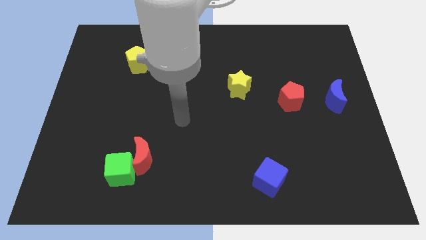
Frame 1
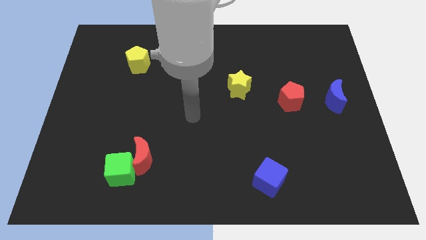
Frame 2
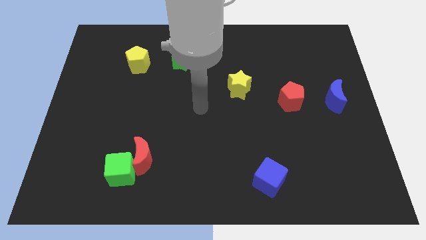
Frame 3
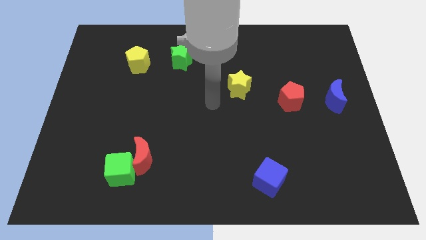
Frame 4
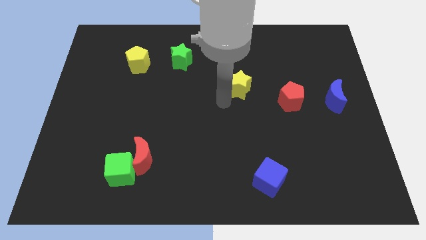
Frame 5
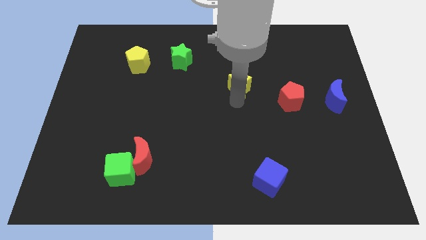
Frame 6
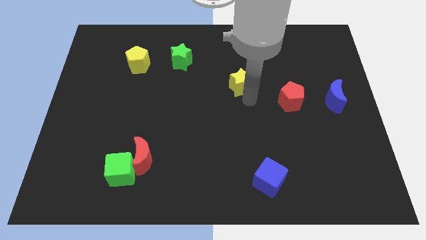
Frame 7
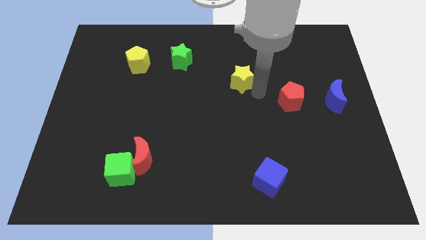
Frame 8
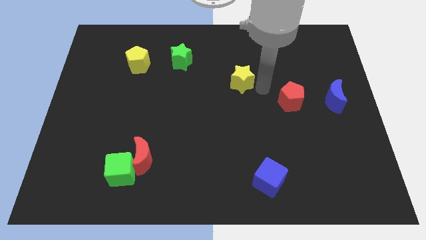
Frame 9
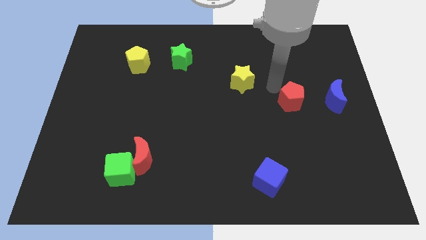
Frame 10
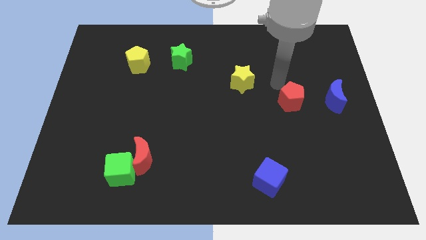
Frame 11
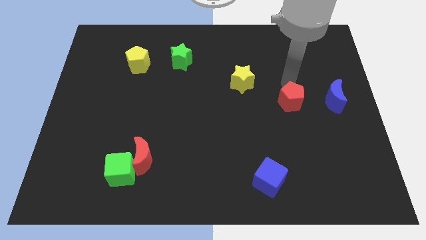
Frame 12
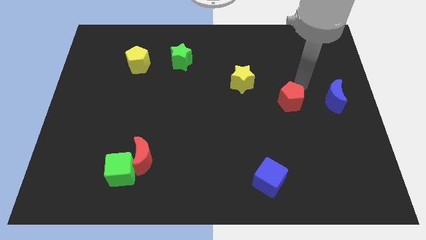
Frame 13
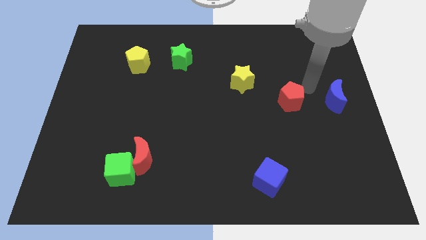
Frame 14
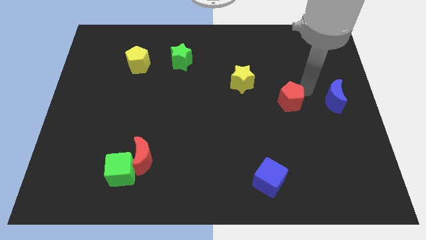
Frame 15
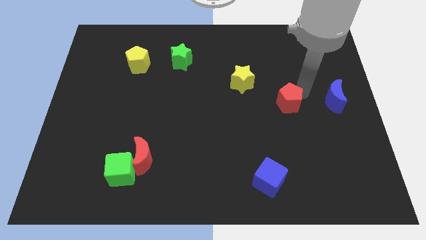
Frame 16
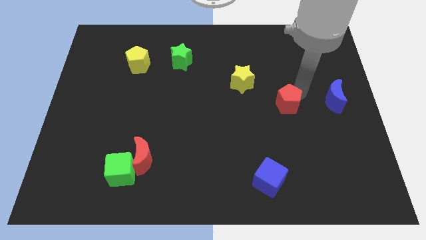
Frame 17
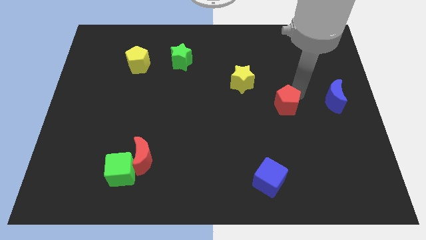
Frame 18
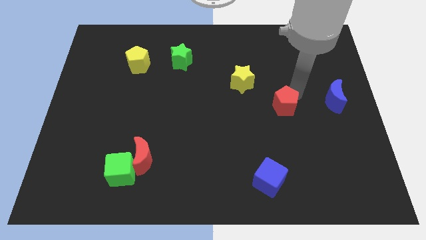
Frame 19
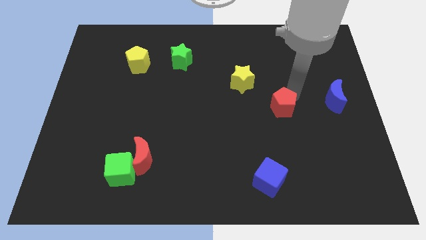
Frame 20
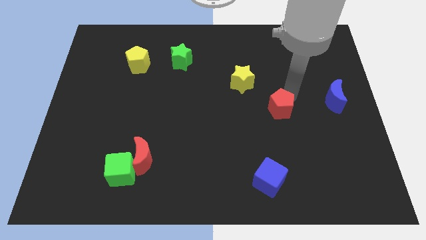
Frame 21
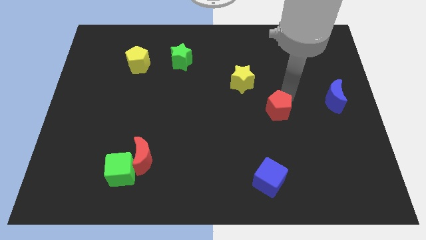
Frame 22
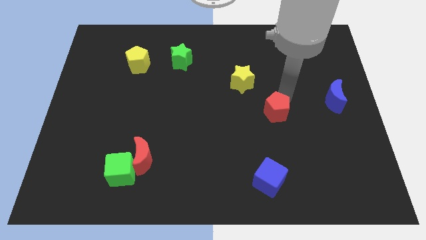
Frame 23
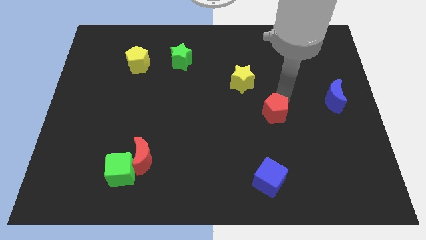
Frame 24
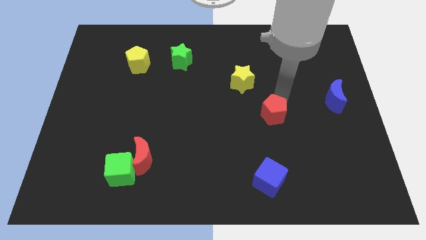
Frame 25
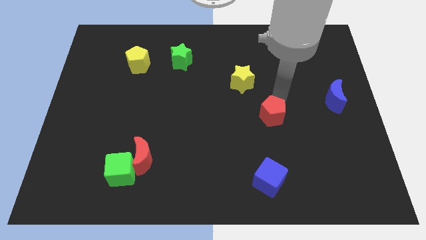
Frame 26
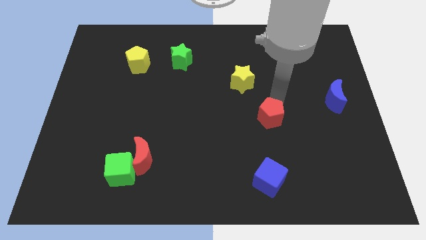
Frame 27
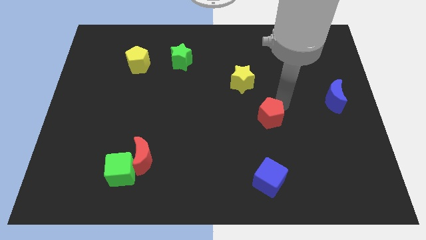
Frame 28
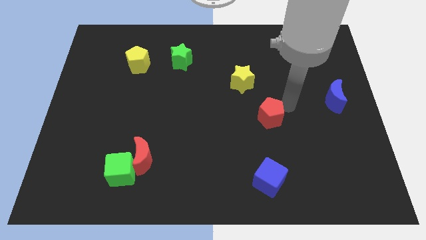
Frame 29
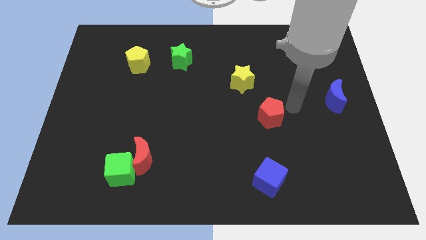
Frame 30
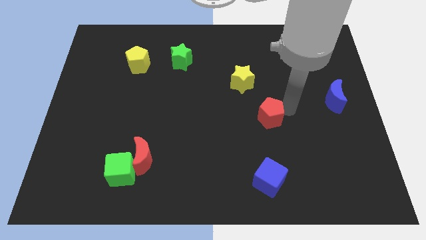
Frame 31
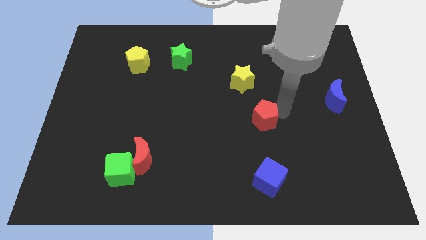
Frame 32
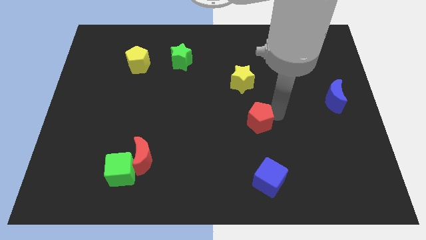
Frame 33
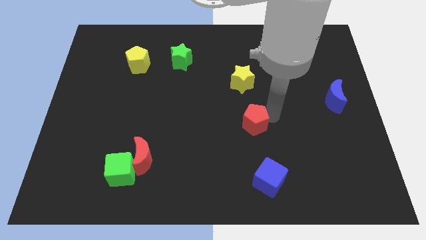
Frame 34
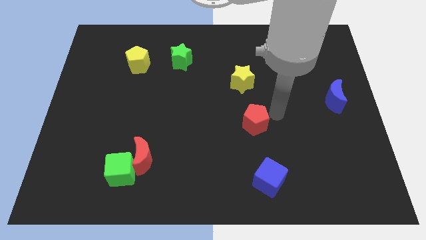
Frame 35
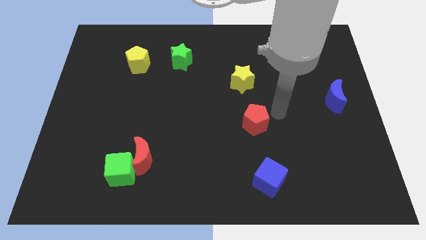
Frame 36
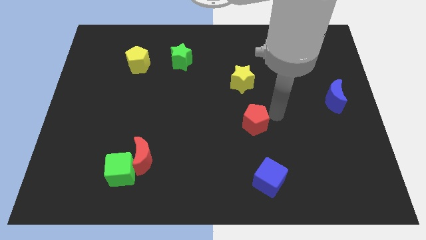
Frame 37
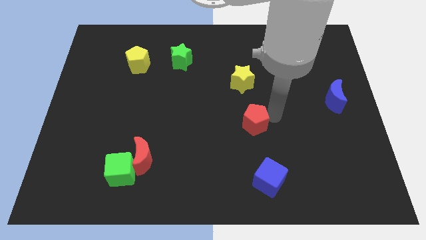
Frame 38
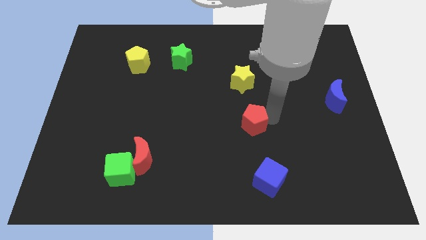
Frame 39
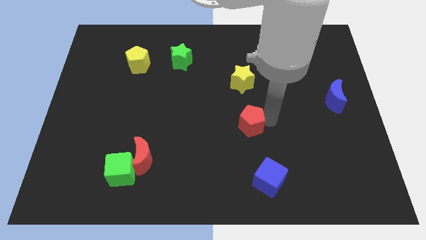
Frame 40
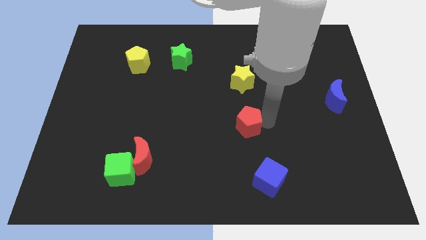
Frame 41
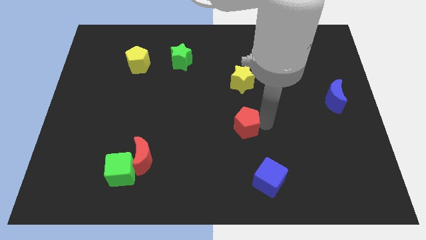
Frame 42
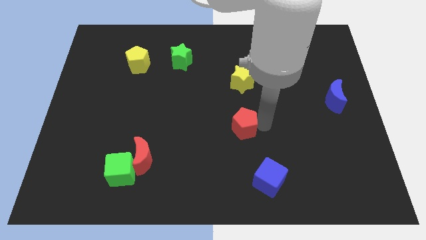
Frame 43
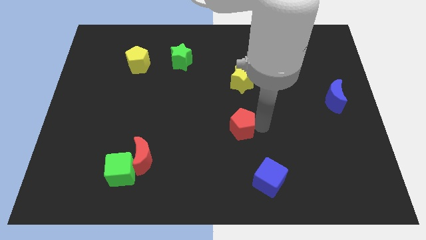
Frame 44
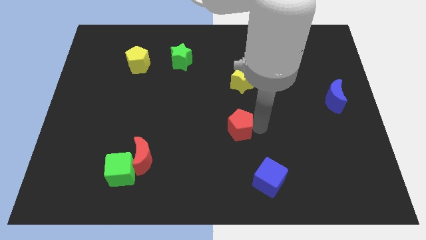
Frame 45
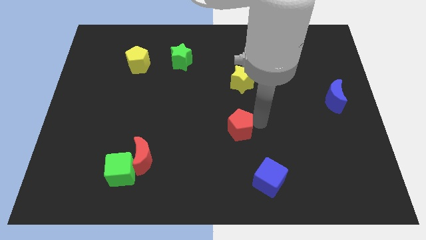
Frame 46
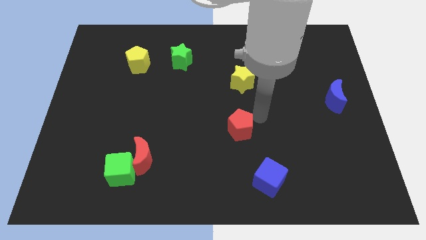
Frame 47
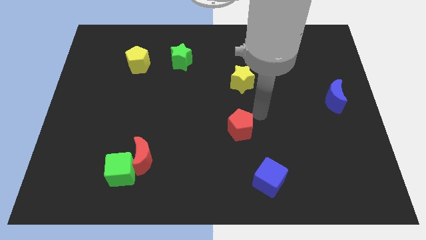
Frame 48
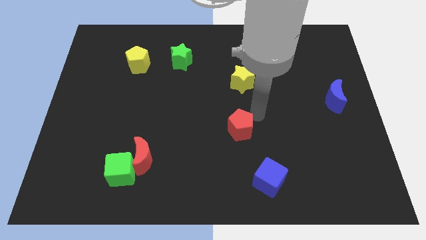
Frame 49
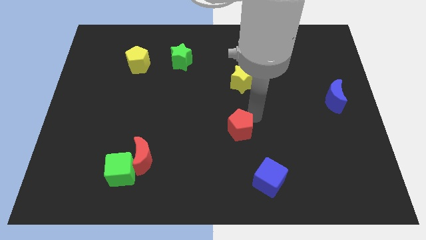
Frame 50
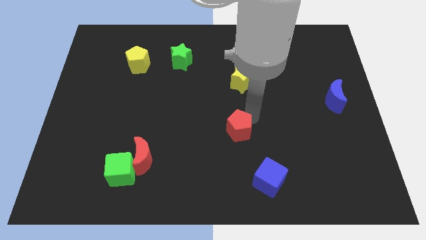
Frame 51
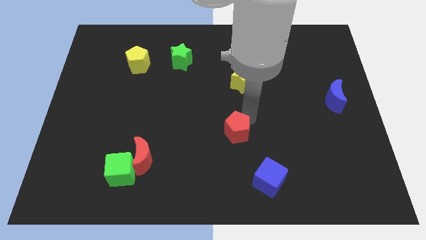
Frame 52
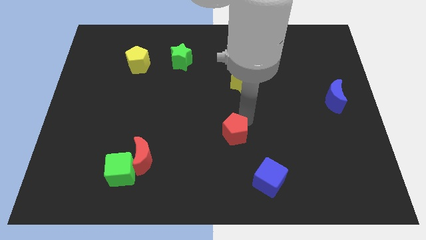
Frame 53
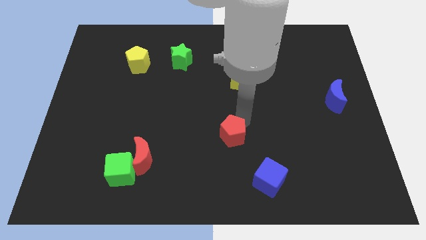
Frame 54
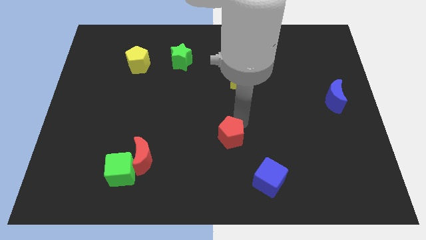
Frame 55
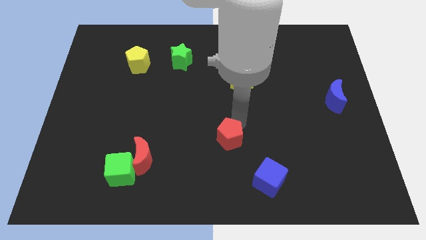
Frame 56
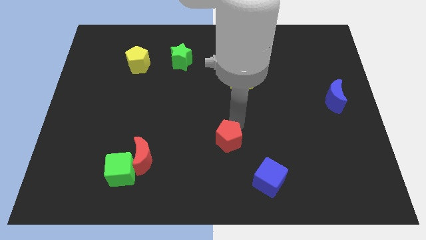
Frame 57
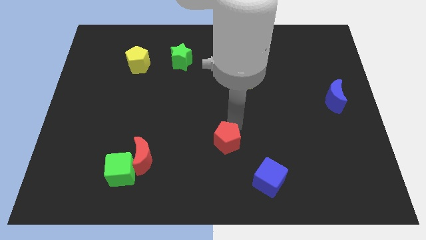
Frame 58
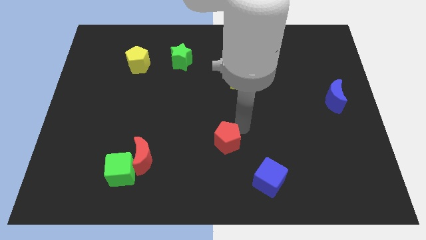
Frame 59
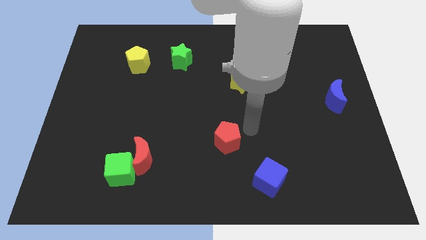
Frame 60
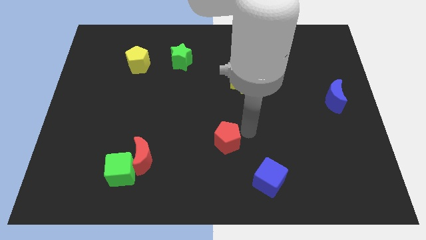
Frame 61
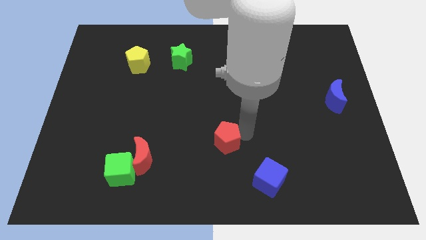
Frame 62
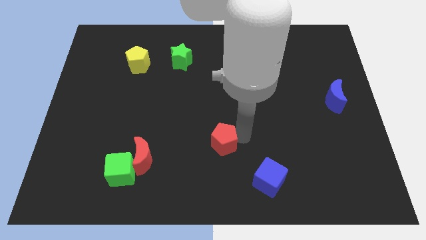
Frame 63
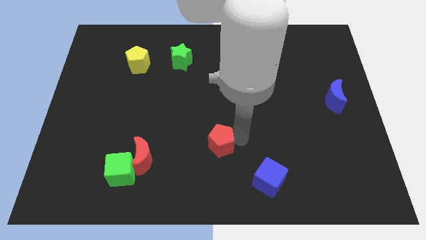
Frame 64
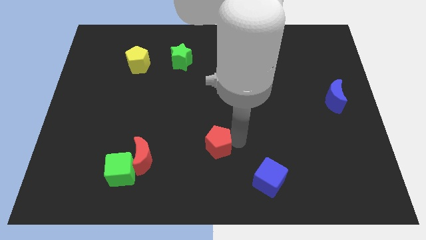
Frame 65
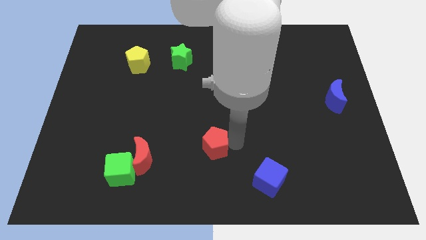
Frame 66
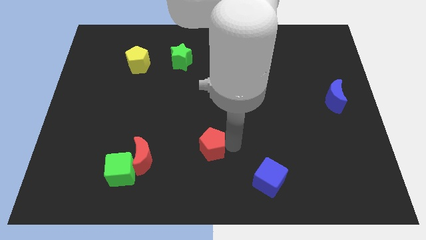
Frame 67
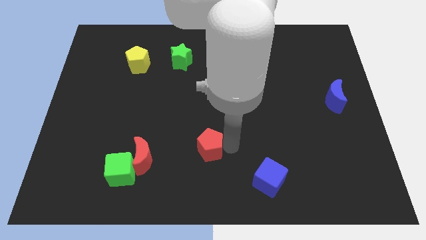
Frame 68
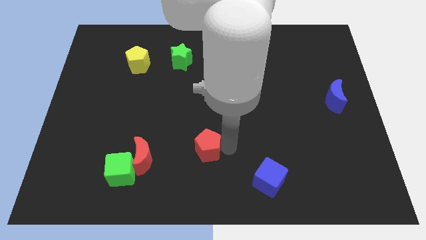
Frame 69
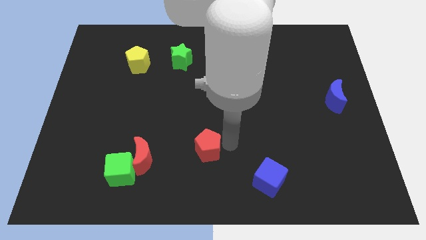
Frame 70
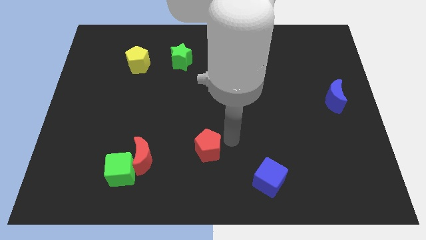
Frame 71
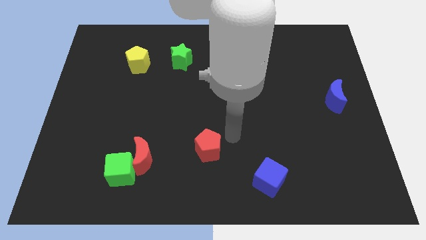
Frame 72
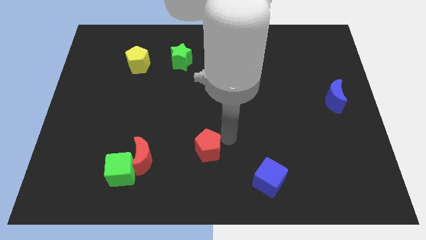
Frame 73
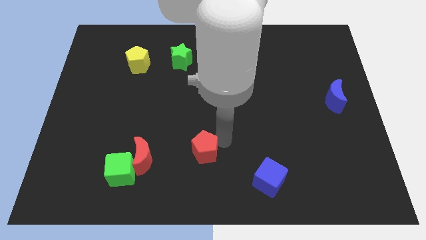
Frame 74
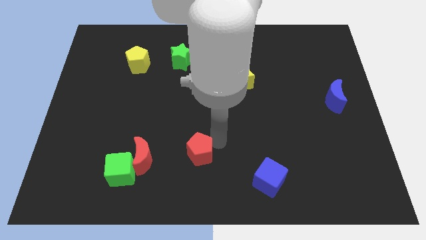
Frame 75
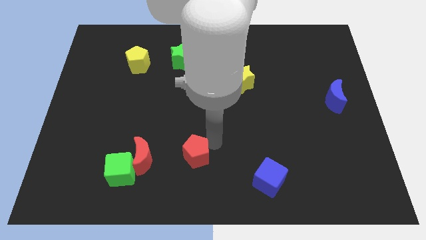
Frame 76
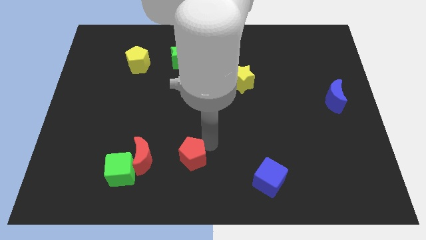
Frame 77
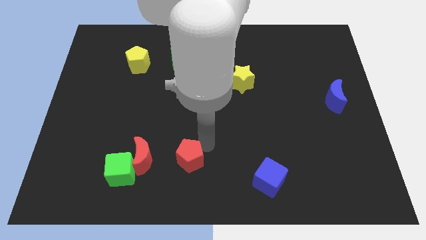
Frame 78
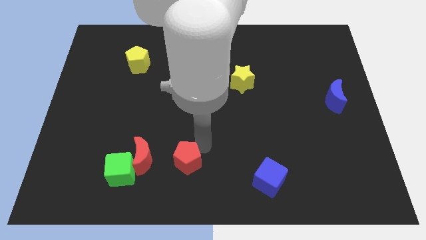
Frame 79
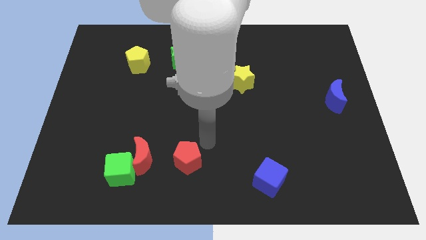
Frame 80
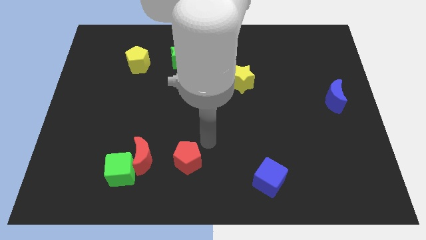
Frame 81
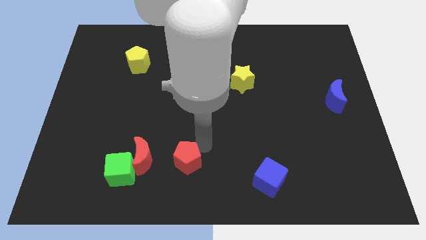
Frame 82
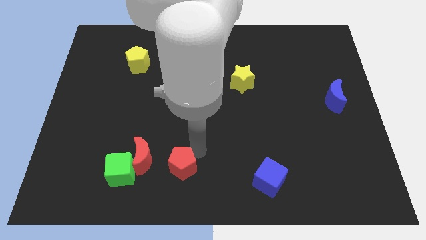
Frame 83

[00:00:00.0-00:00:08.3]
push the red pentagon to the bottom right side of the red moon
